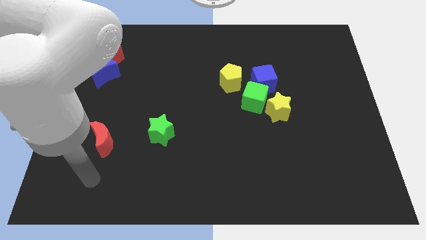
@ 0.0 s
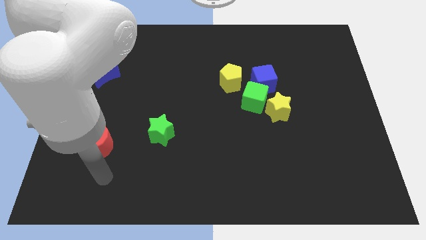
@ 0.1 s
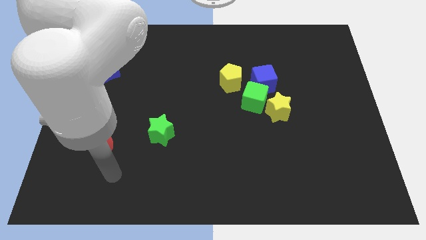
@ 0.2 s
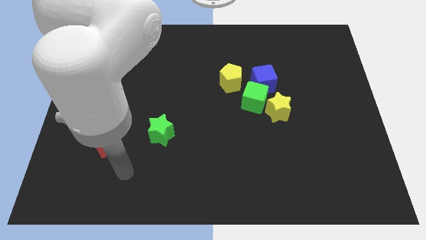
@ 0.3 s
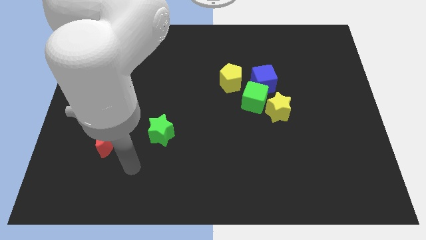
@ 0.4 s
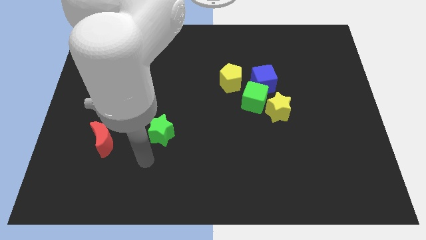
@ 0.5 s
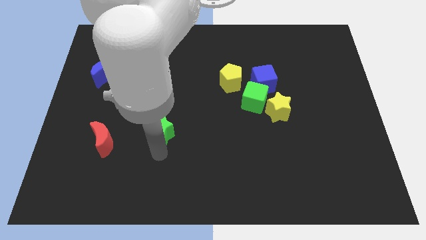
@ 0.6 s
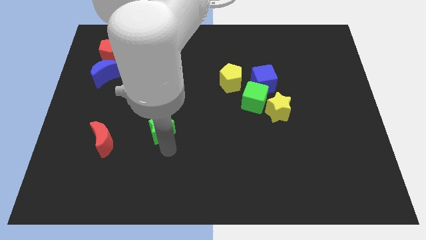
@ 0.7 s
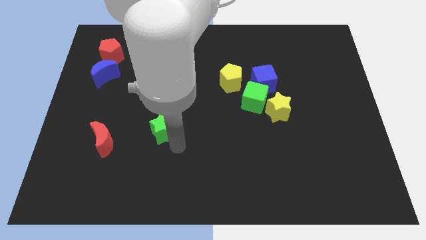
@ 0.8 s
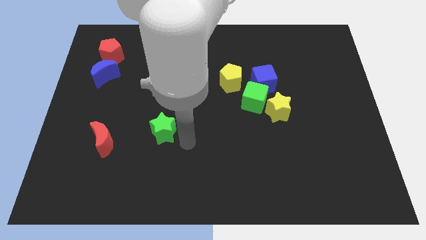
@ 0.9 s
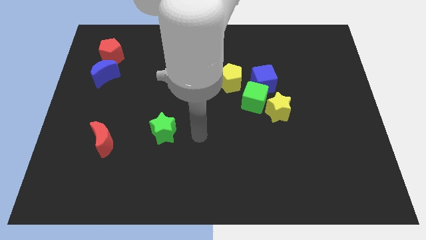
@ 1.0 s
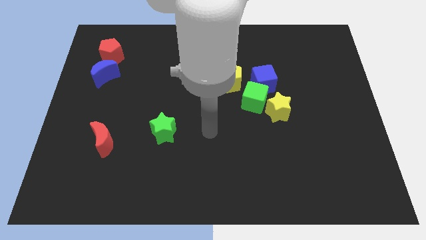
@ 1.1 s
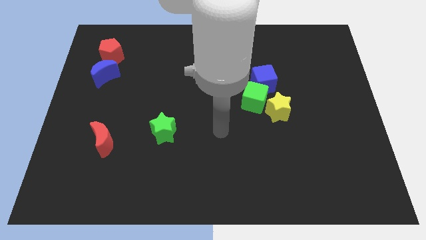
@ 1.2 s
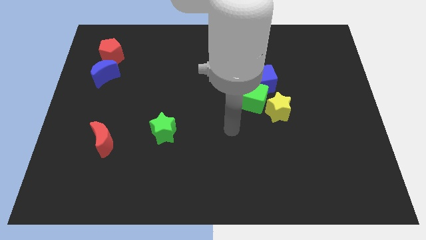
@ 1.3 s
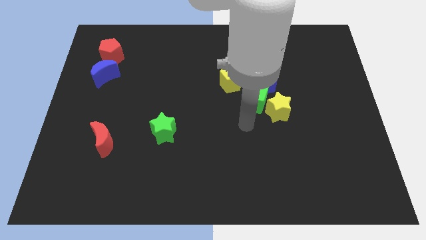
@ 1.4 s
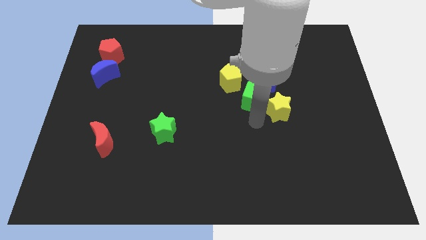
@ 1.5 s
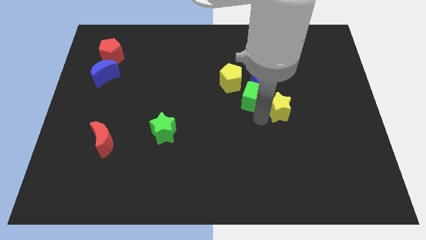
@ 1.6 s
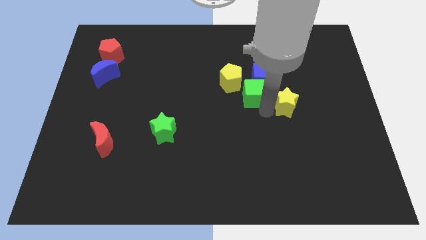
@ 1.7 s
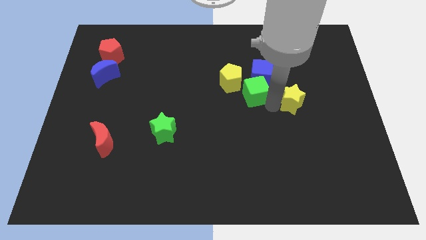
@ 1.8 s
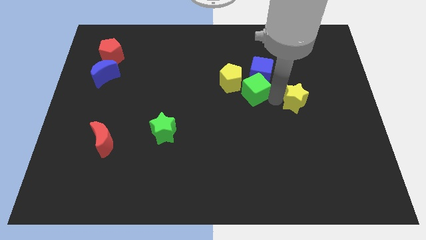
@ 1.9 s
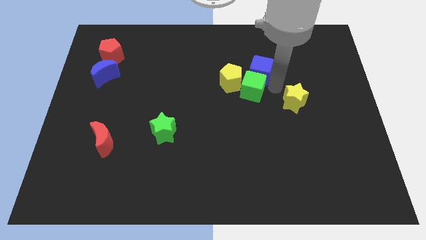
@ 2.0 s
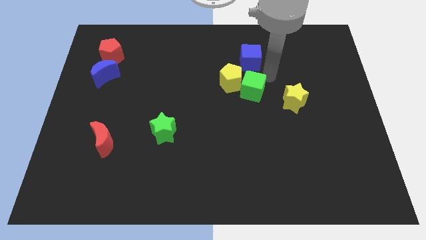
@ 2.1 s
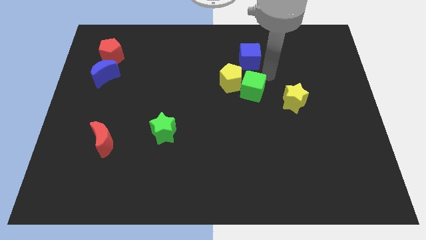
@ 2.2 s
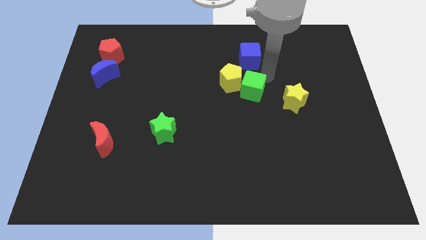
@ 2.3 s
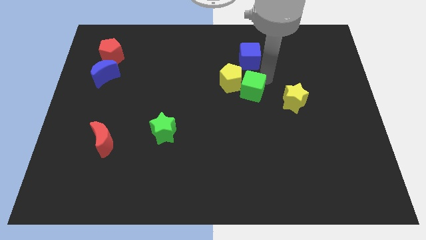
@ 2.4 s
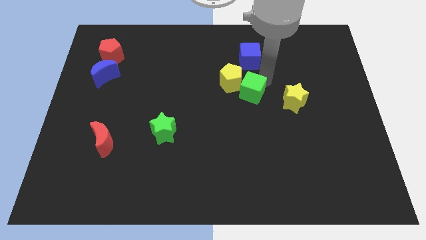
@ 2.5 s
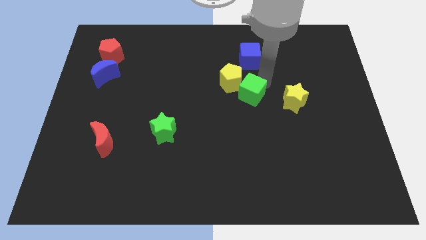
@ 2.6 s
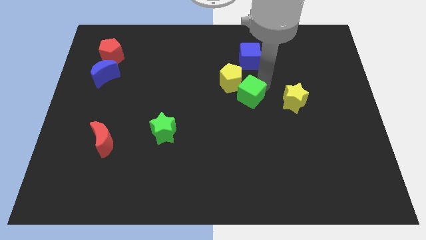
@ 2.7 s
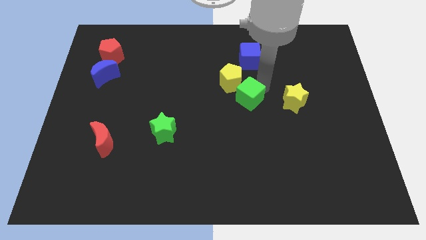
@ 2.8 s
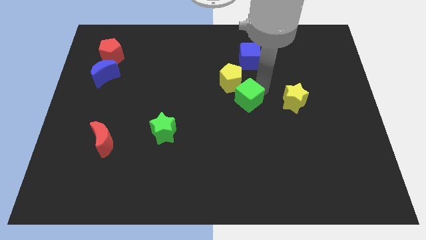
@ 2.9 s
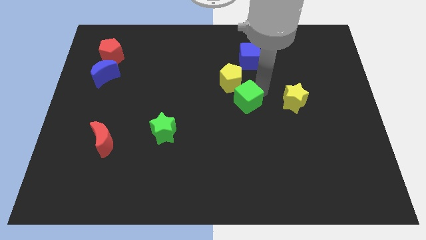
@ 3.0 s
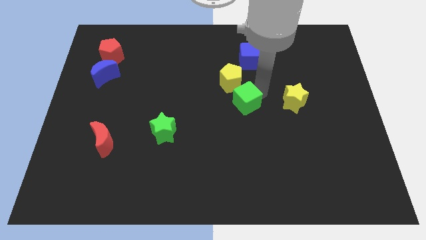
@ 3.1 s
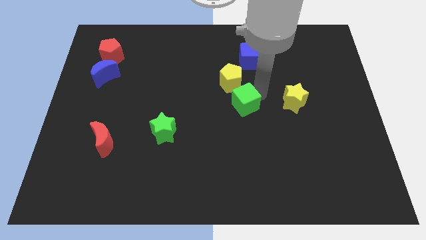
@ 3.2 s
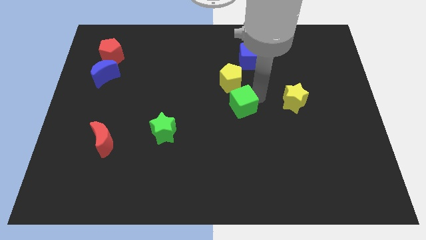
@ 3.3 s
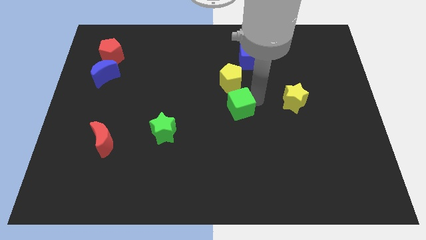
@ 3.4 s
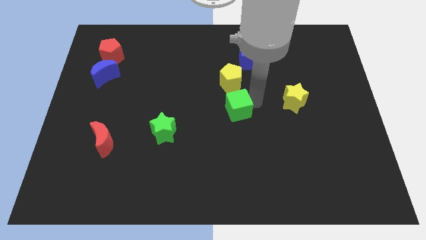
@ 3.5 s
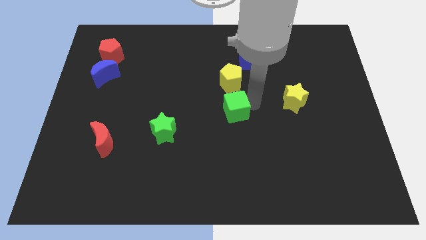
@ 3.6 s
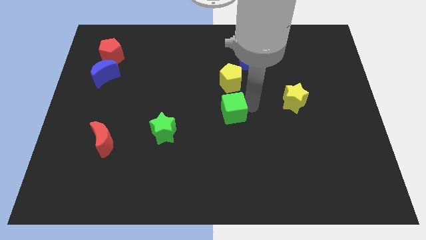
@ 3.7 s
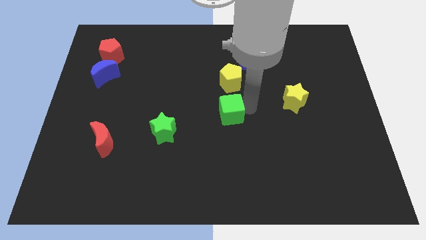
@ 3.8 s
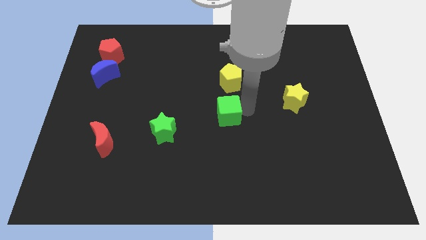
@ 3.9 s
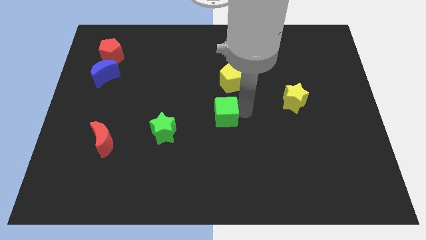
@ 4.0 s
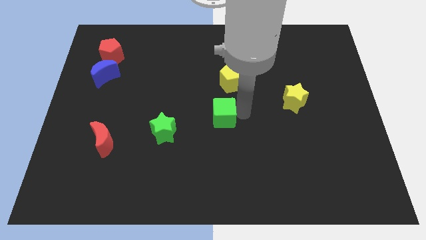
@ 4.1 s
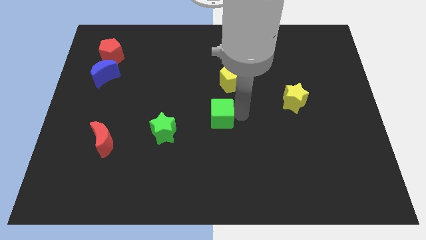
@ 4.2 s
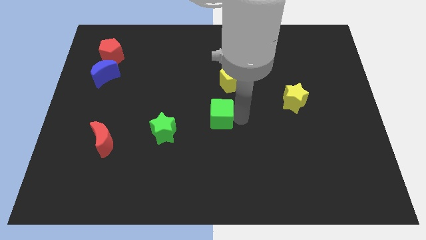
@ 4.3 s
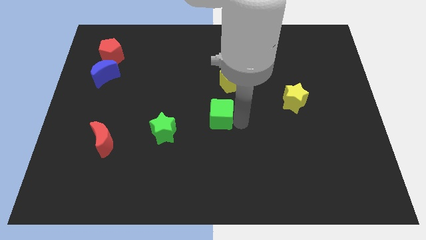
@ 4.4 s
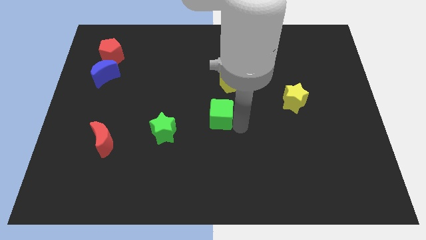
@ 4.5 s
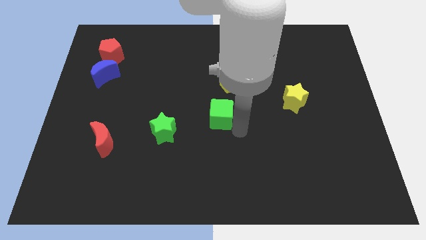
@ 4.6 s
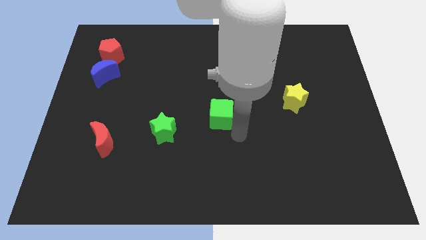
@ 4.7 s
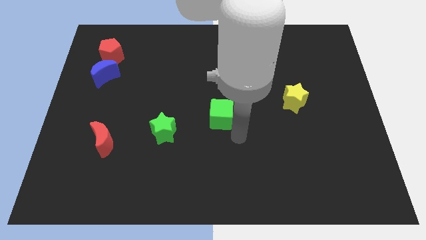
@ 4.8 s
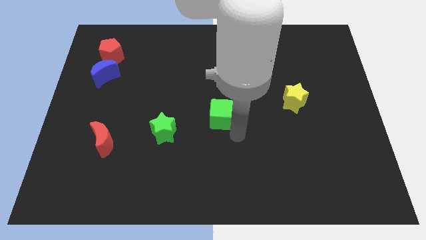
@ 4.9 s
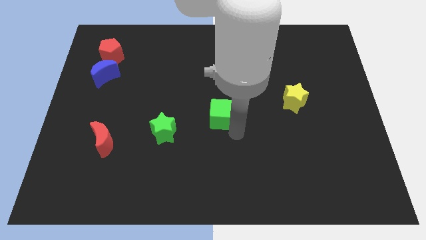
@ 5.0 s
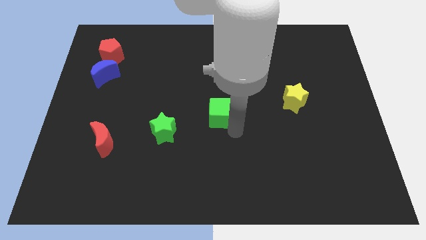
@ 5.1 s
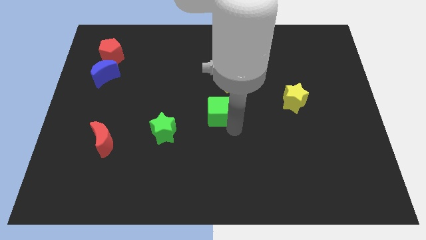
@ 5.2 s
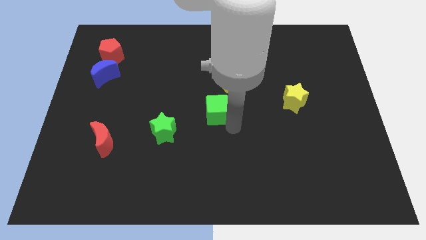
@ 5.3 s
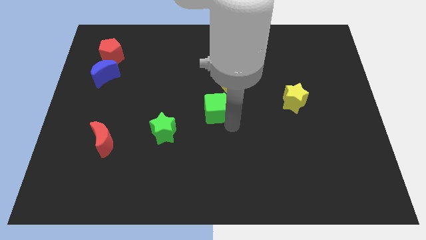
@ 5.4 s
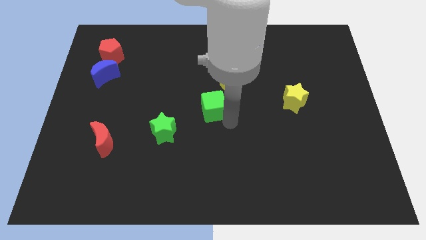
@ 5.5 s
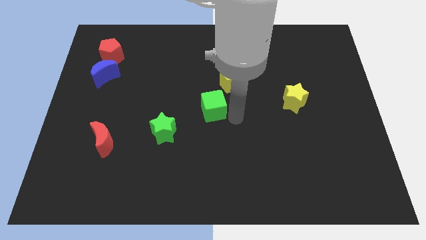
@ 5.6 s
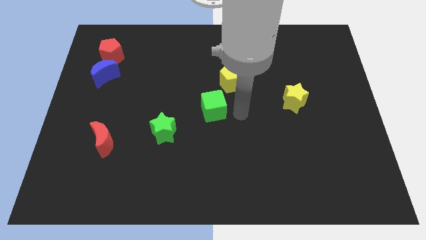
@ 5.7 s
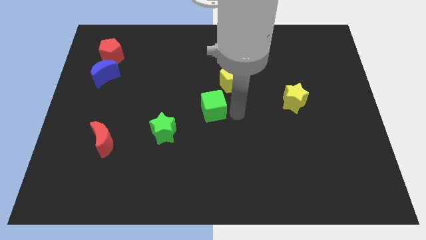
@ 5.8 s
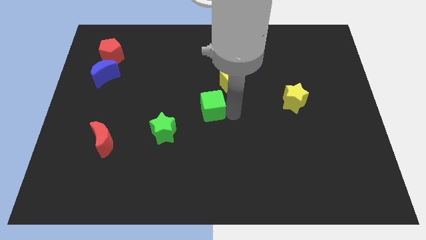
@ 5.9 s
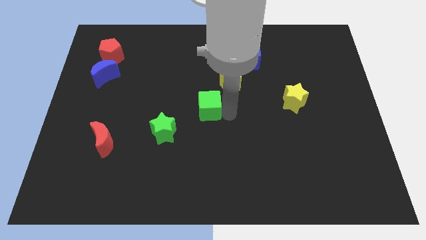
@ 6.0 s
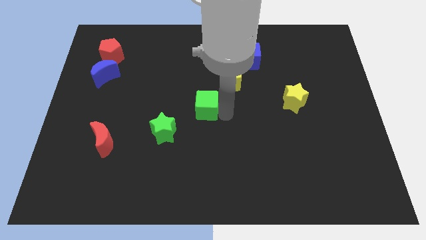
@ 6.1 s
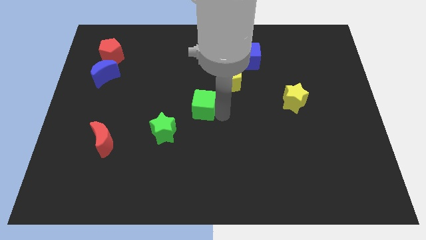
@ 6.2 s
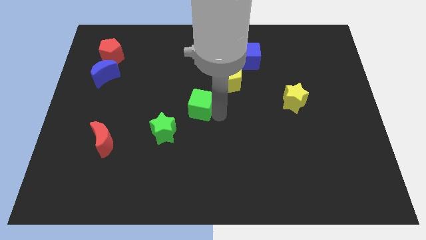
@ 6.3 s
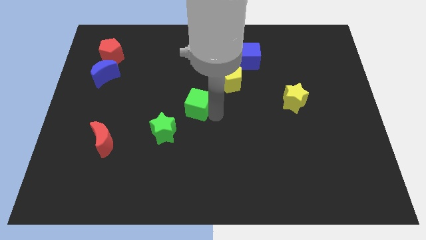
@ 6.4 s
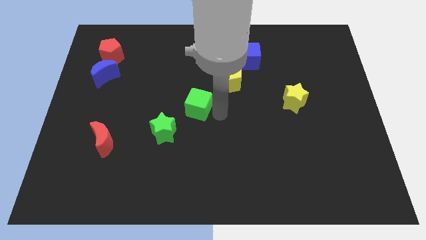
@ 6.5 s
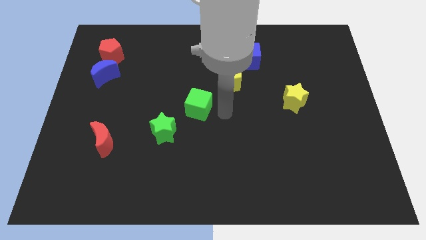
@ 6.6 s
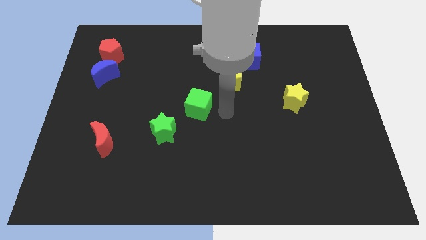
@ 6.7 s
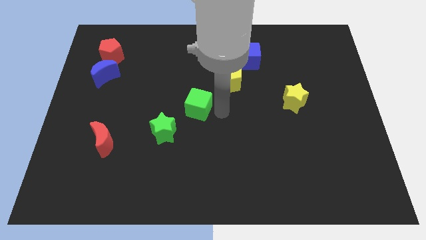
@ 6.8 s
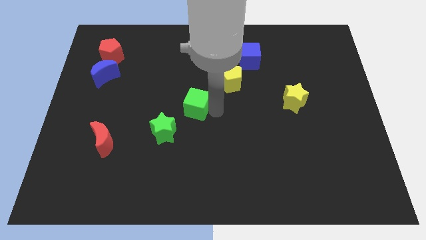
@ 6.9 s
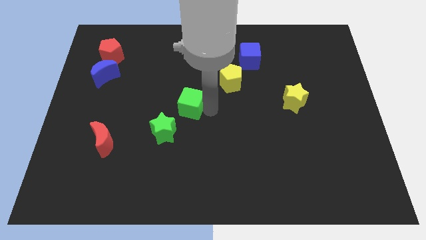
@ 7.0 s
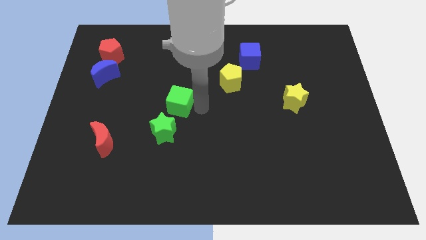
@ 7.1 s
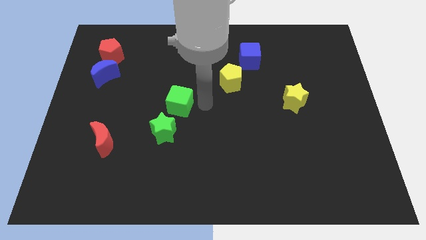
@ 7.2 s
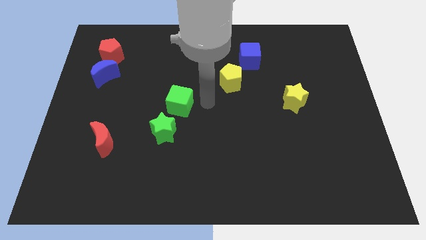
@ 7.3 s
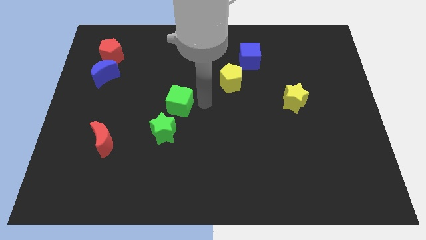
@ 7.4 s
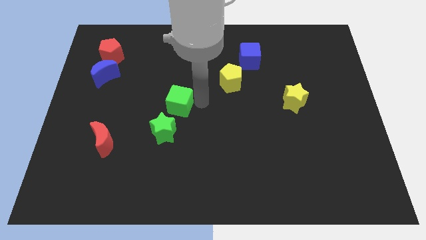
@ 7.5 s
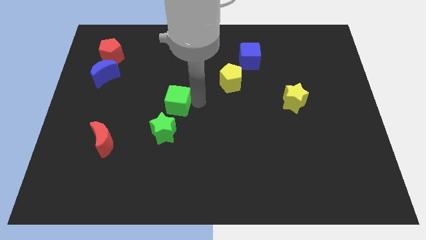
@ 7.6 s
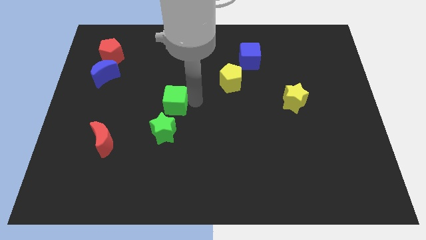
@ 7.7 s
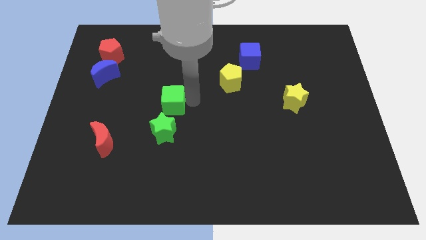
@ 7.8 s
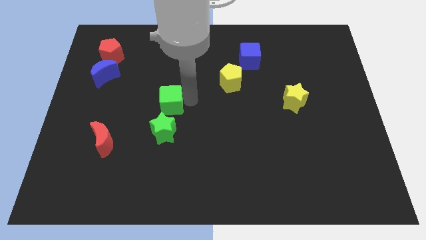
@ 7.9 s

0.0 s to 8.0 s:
move the green cube left

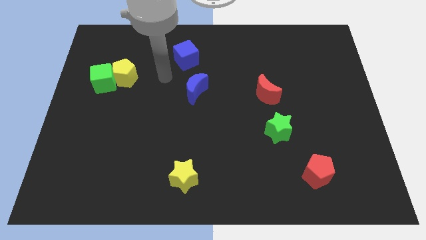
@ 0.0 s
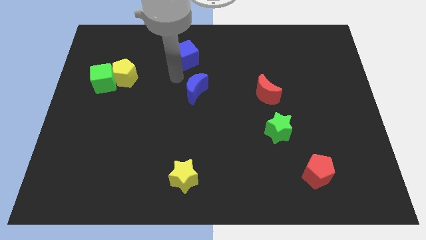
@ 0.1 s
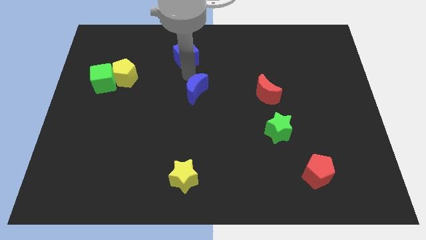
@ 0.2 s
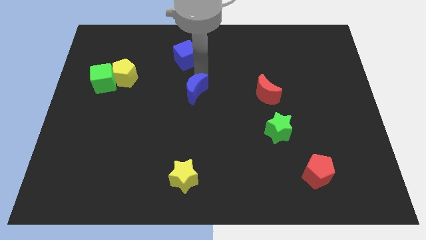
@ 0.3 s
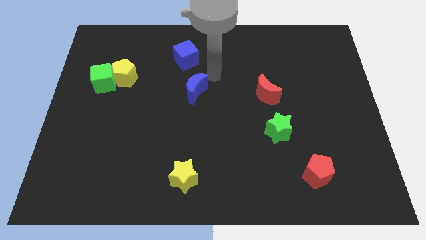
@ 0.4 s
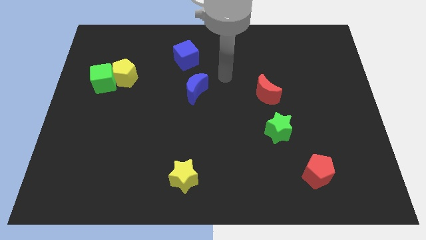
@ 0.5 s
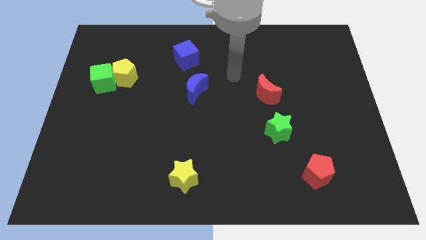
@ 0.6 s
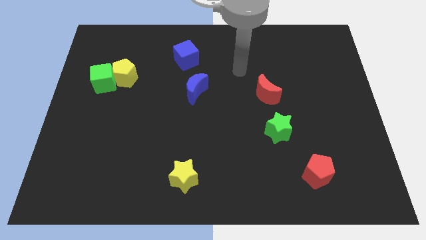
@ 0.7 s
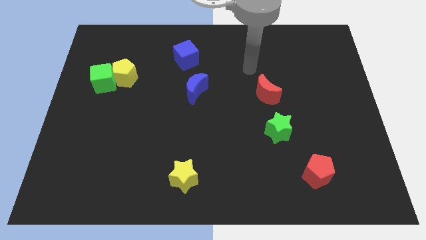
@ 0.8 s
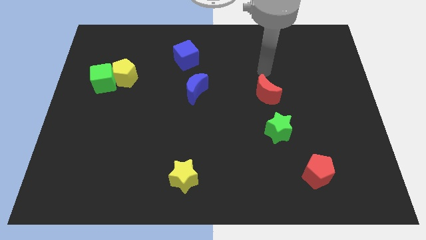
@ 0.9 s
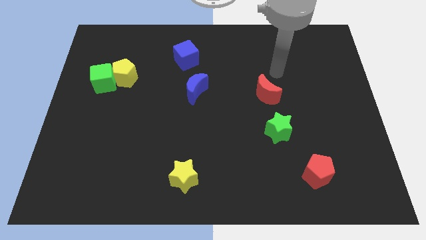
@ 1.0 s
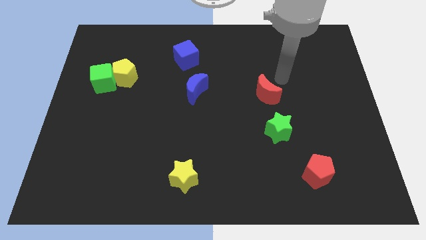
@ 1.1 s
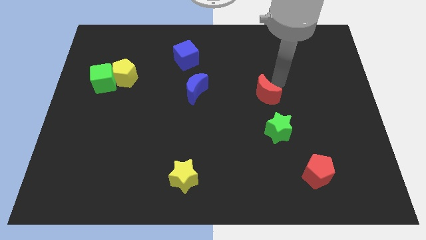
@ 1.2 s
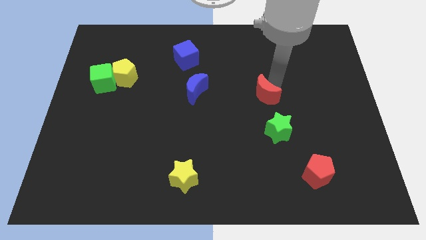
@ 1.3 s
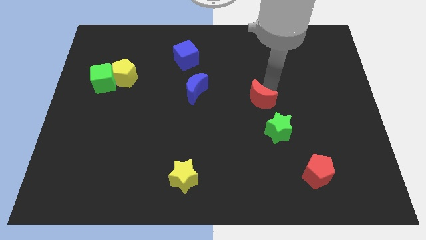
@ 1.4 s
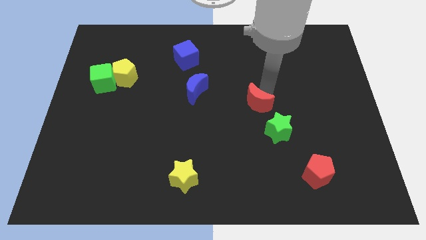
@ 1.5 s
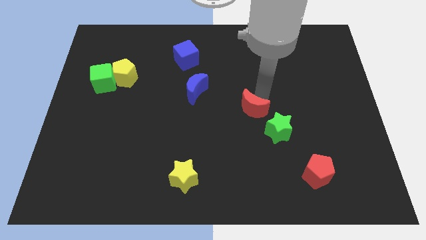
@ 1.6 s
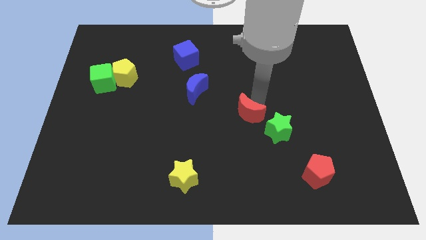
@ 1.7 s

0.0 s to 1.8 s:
push the red moon diagonally downwards and left a bit
